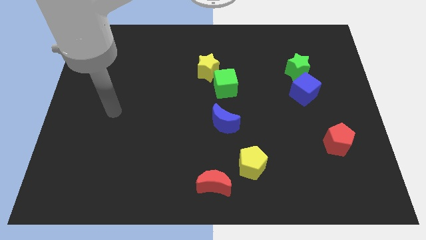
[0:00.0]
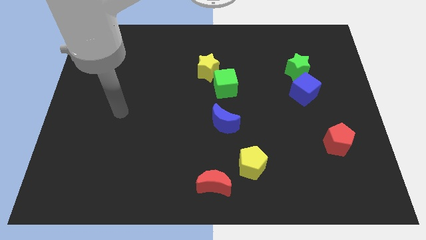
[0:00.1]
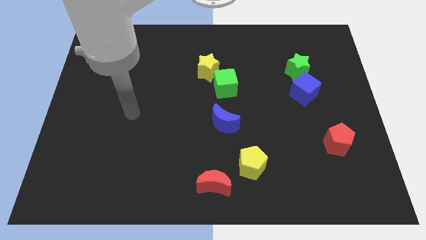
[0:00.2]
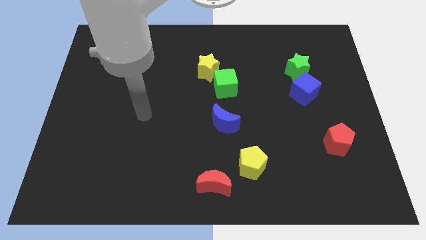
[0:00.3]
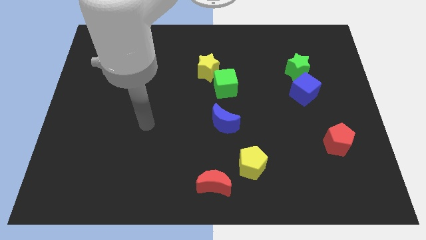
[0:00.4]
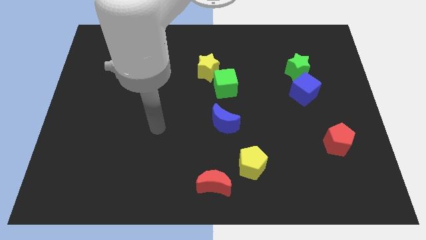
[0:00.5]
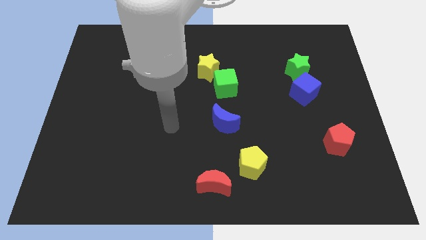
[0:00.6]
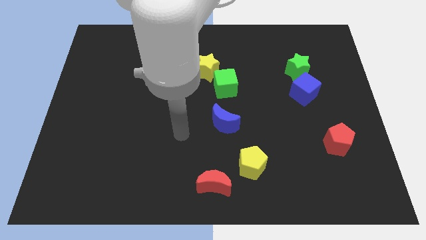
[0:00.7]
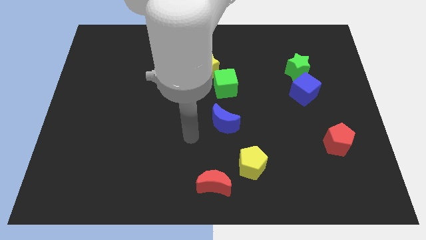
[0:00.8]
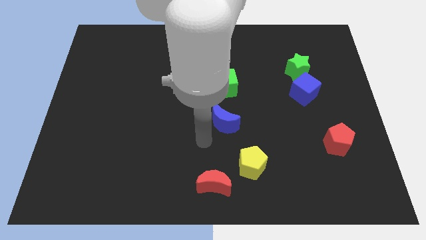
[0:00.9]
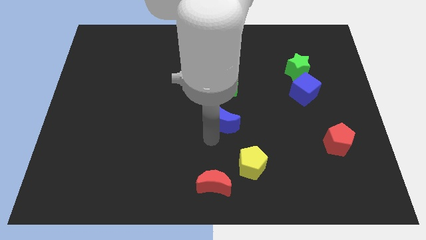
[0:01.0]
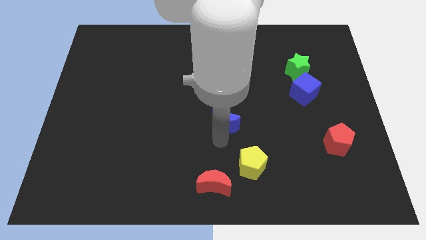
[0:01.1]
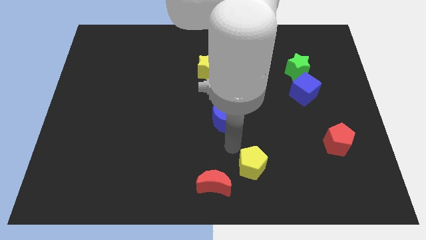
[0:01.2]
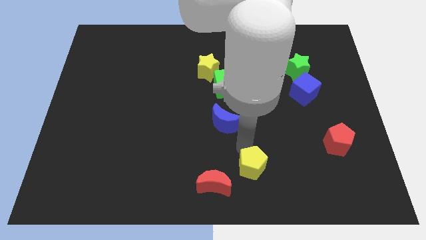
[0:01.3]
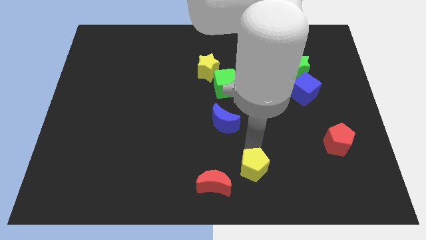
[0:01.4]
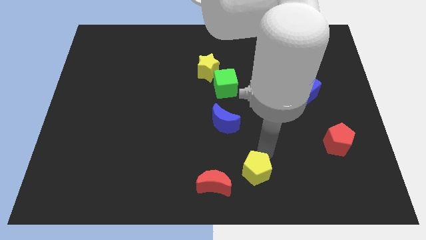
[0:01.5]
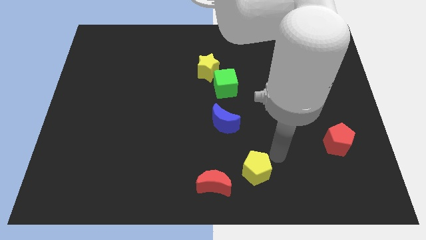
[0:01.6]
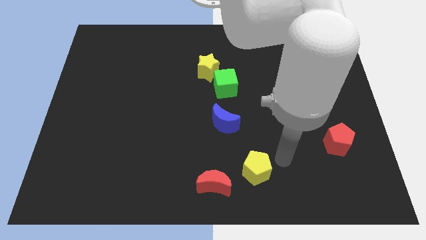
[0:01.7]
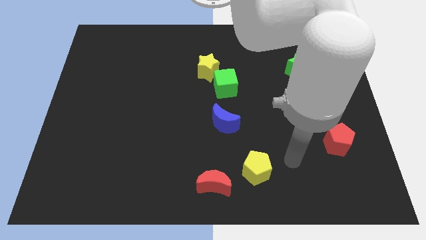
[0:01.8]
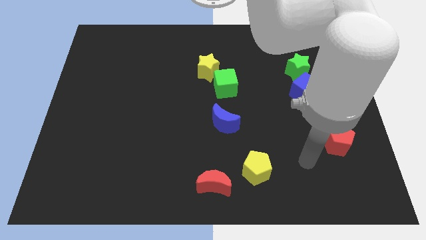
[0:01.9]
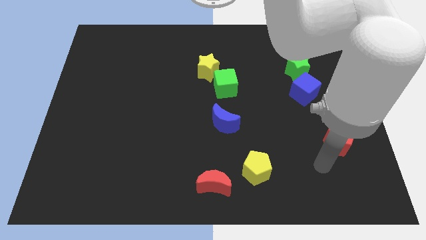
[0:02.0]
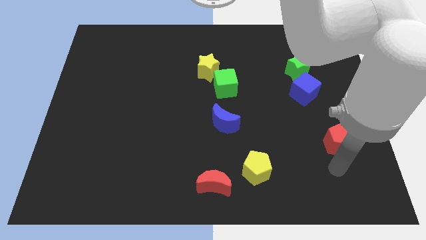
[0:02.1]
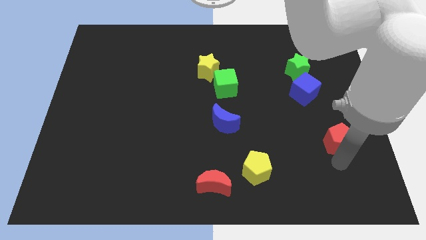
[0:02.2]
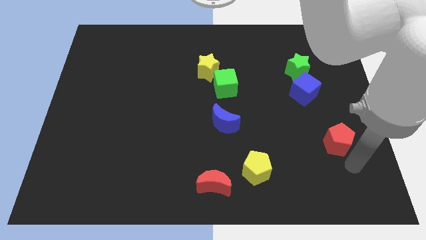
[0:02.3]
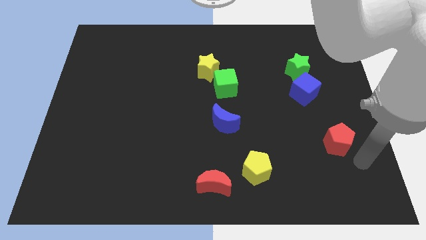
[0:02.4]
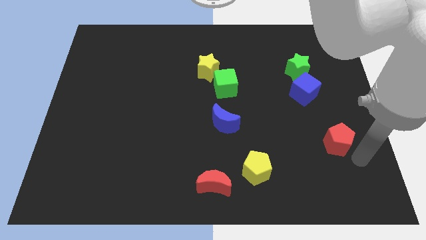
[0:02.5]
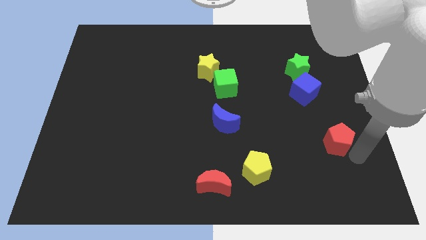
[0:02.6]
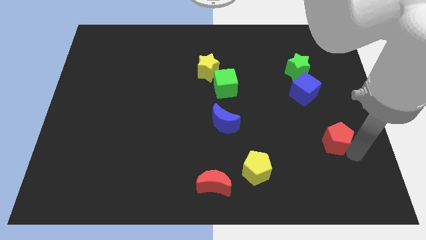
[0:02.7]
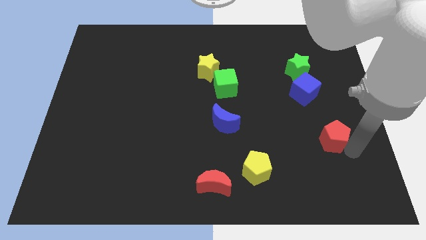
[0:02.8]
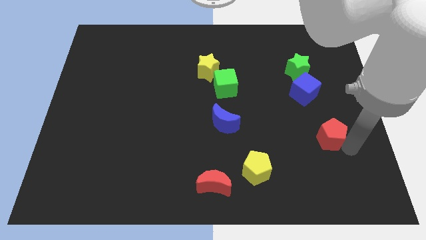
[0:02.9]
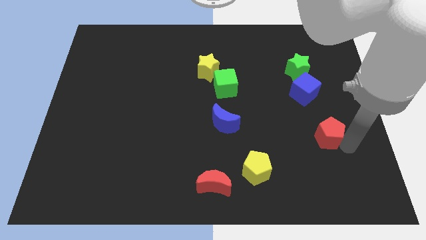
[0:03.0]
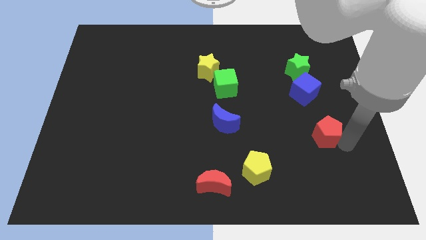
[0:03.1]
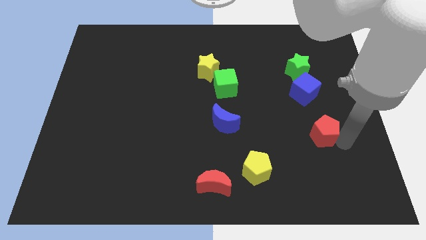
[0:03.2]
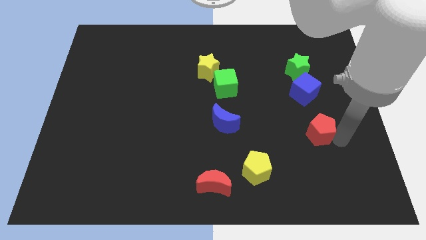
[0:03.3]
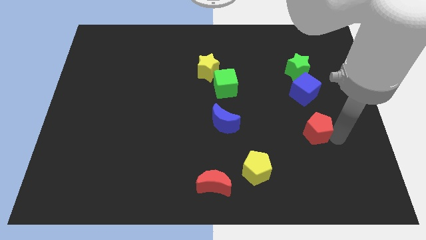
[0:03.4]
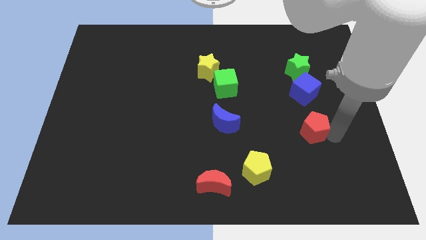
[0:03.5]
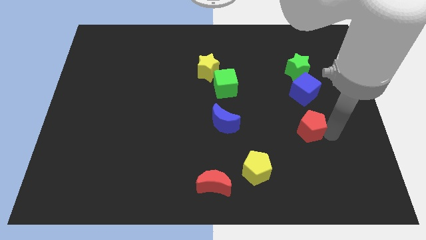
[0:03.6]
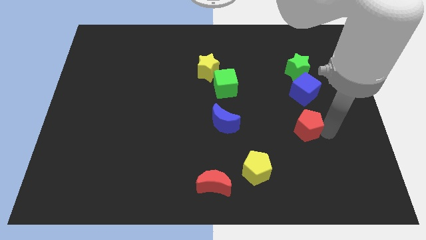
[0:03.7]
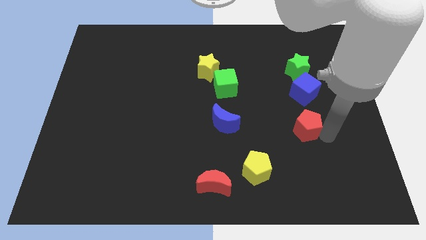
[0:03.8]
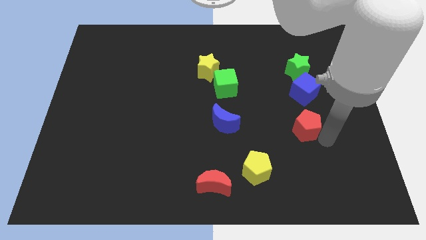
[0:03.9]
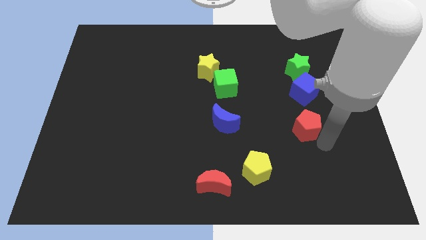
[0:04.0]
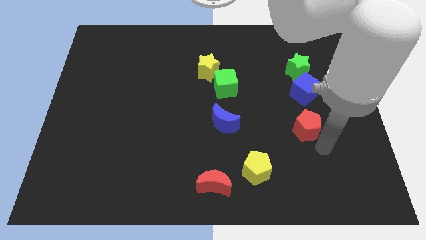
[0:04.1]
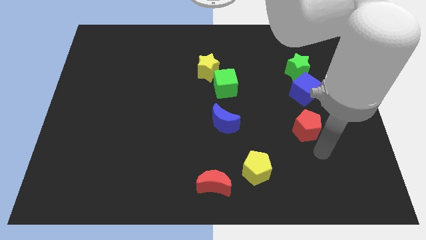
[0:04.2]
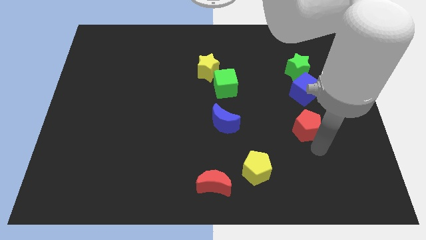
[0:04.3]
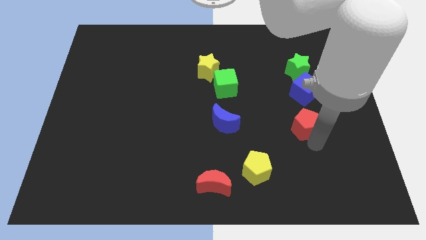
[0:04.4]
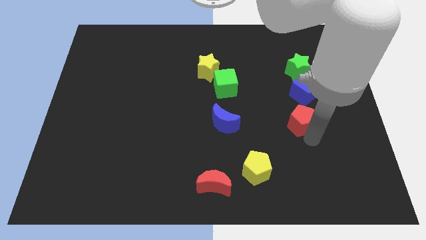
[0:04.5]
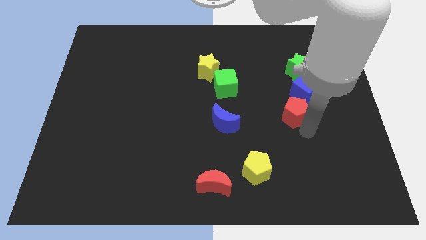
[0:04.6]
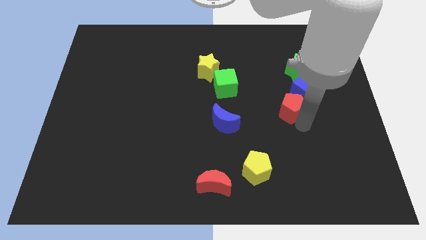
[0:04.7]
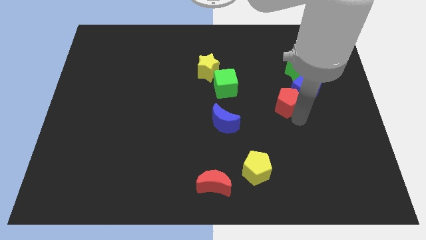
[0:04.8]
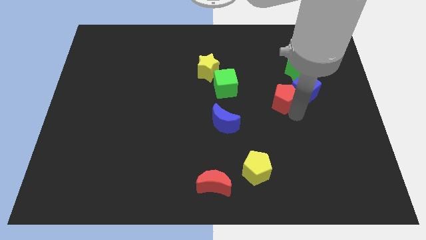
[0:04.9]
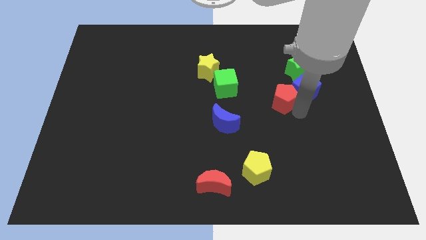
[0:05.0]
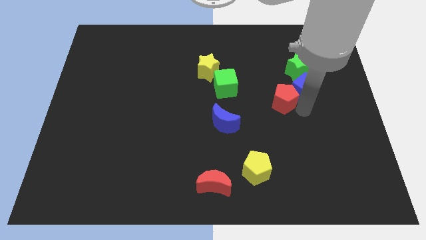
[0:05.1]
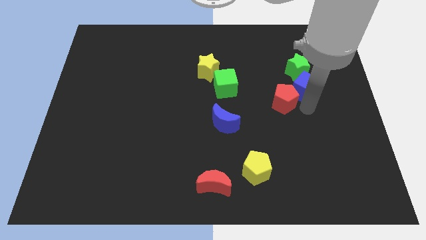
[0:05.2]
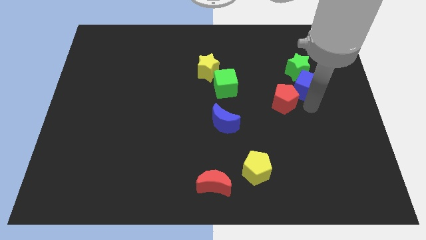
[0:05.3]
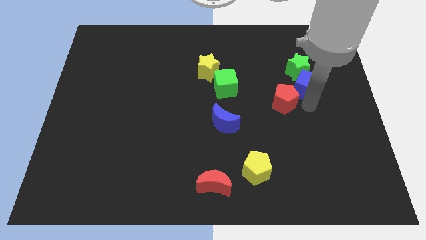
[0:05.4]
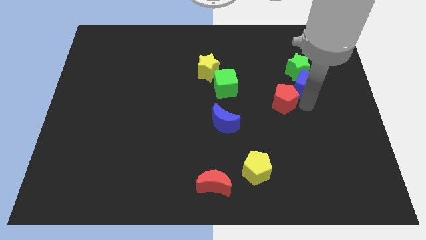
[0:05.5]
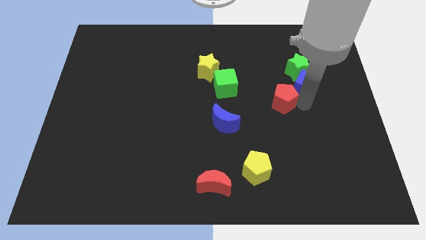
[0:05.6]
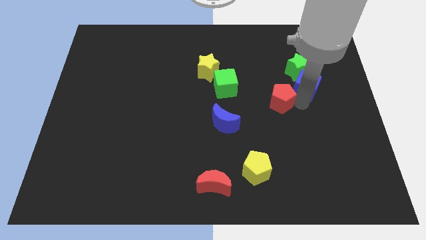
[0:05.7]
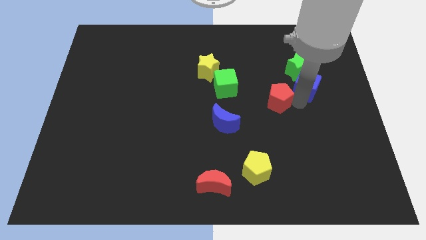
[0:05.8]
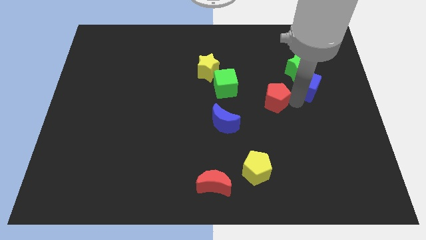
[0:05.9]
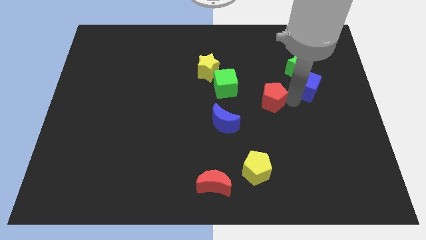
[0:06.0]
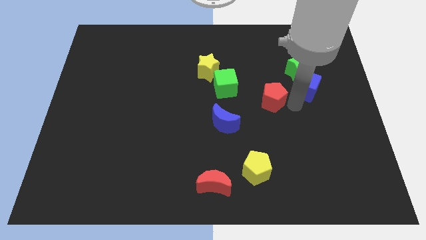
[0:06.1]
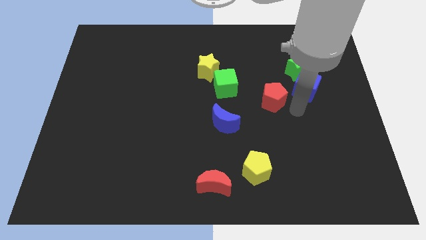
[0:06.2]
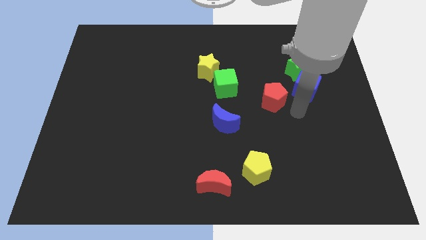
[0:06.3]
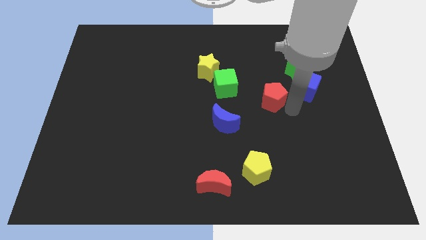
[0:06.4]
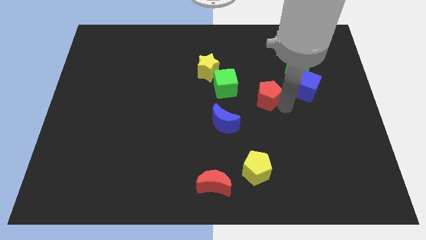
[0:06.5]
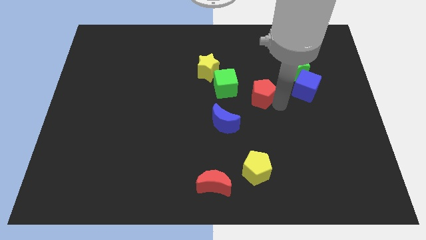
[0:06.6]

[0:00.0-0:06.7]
slide the red pentagon diagonally upwards and left

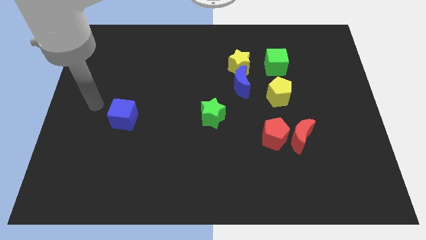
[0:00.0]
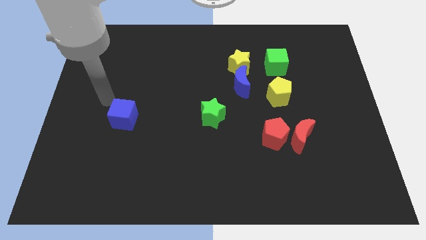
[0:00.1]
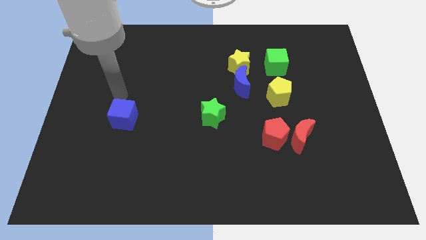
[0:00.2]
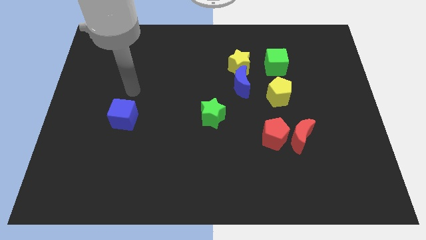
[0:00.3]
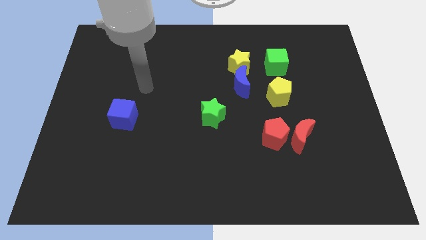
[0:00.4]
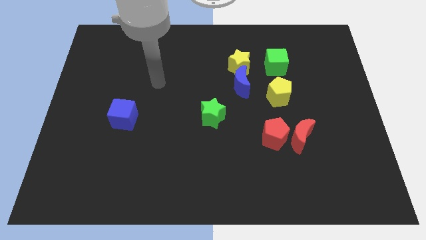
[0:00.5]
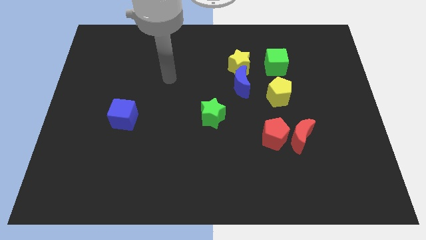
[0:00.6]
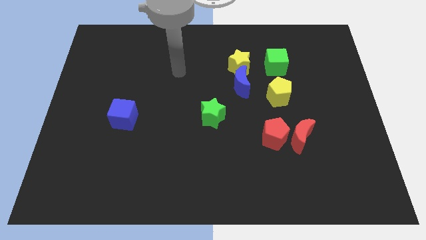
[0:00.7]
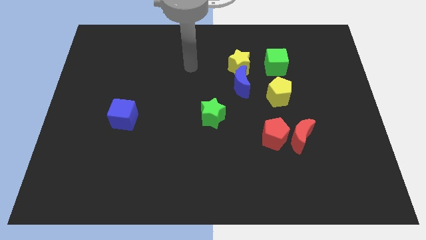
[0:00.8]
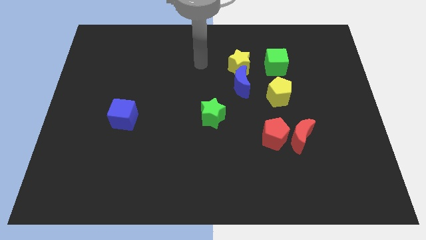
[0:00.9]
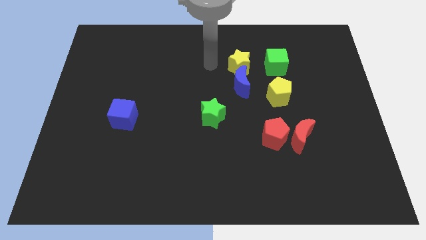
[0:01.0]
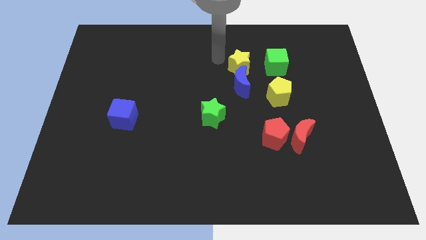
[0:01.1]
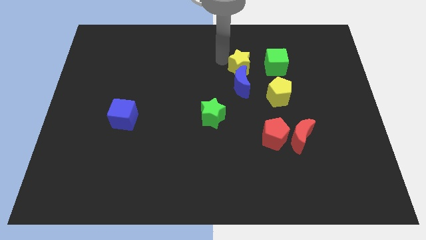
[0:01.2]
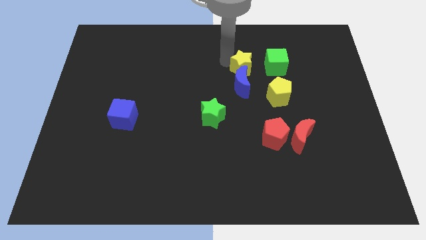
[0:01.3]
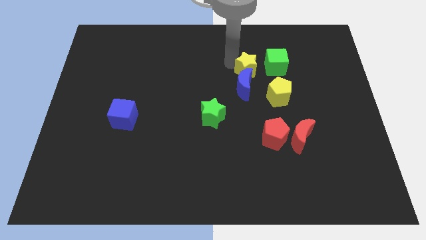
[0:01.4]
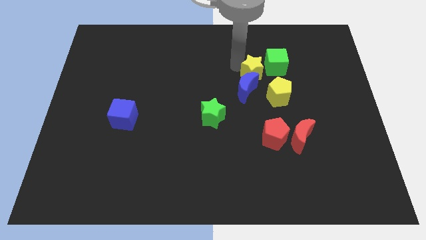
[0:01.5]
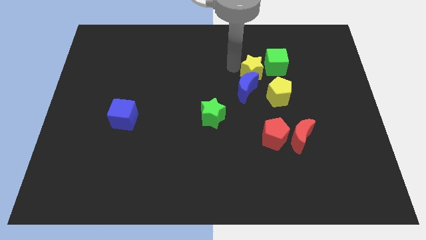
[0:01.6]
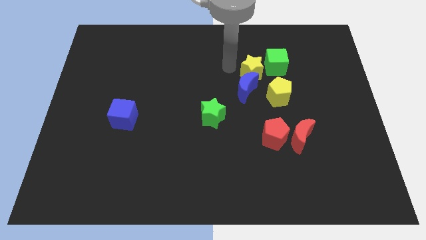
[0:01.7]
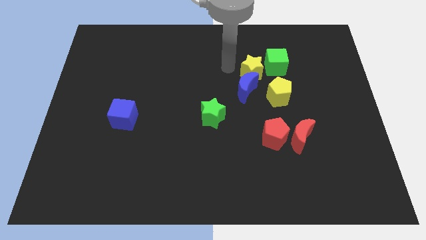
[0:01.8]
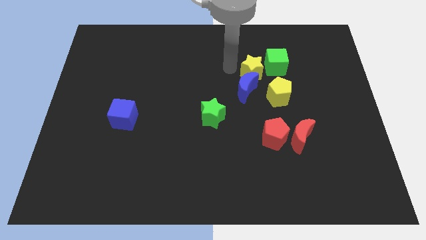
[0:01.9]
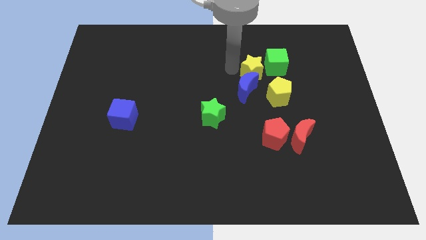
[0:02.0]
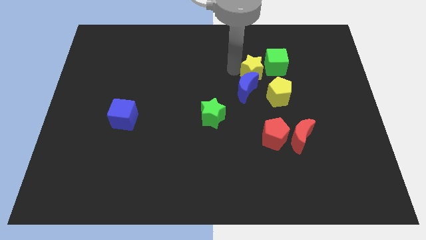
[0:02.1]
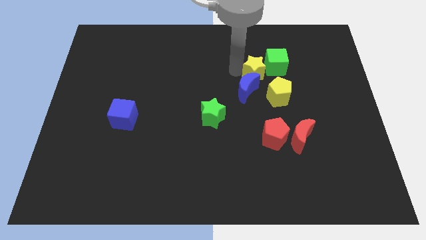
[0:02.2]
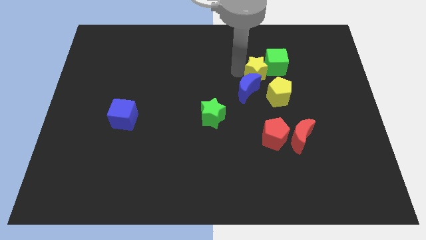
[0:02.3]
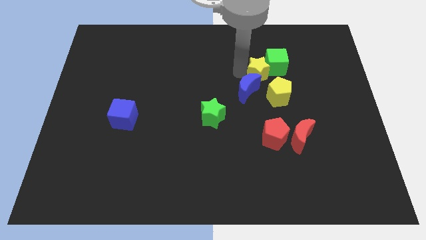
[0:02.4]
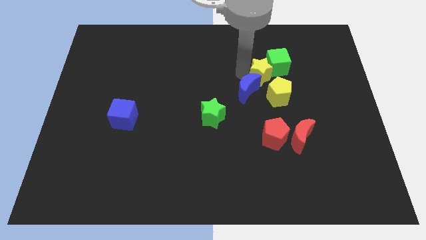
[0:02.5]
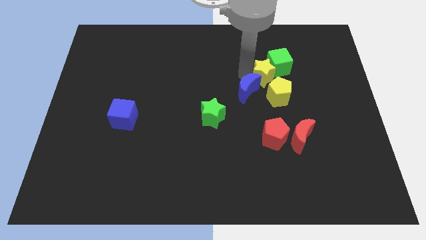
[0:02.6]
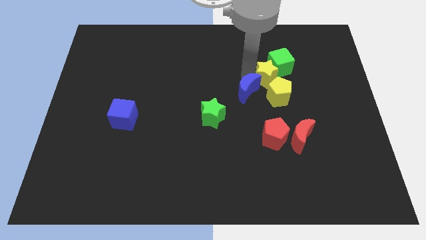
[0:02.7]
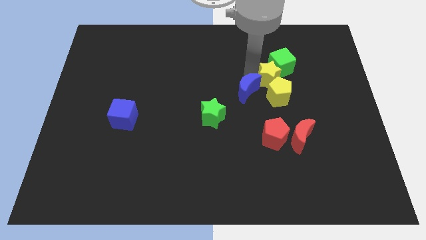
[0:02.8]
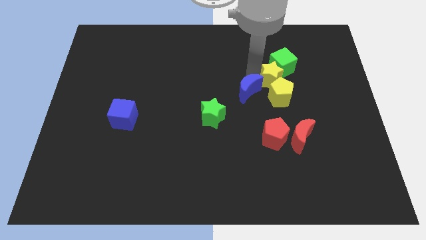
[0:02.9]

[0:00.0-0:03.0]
slightly slide the yellow star to the right
